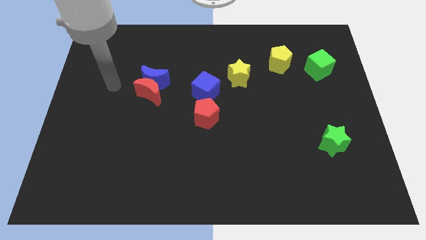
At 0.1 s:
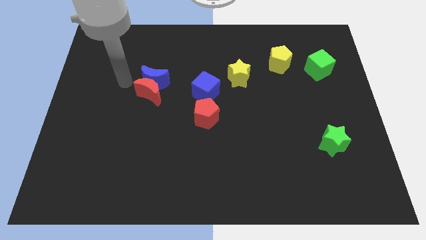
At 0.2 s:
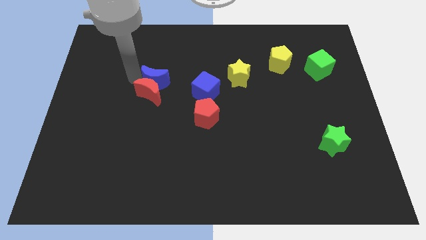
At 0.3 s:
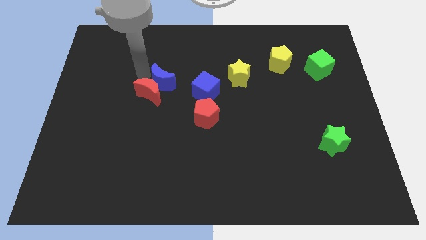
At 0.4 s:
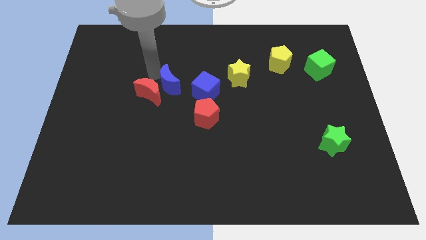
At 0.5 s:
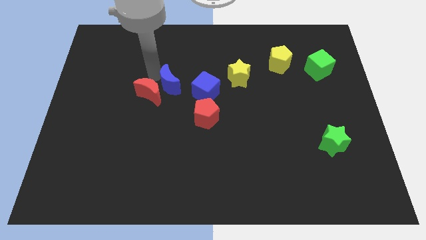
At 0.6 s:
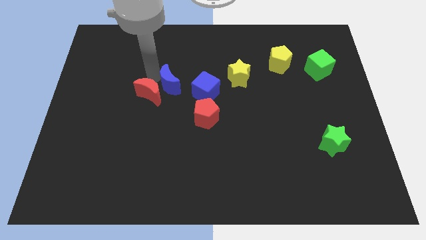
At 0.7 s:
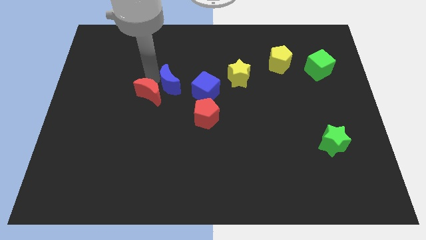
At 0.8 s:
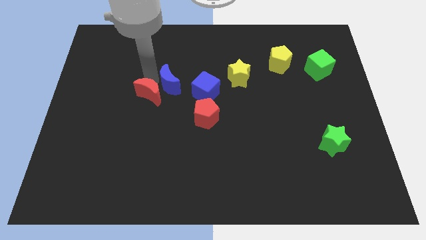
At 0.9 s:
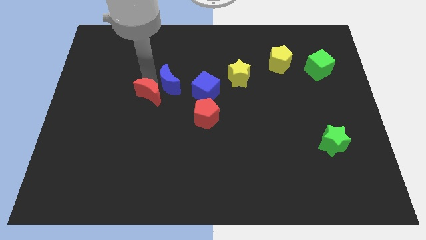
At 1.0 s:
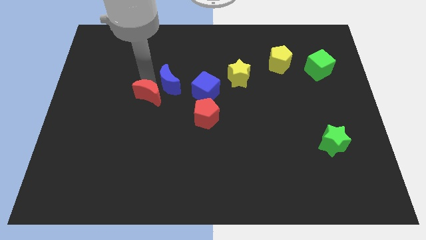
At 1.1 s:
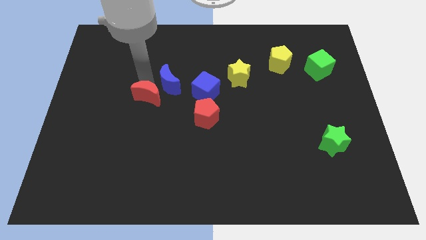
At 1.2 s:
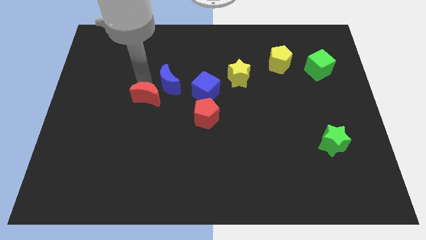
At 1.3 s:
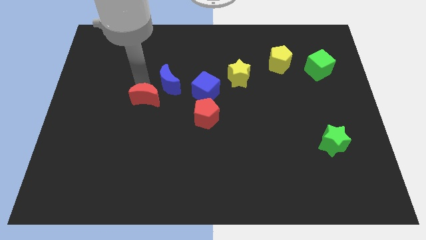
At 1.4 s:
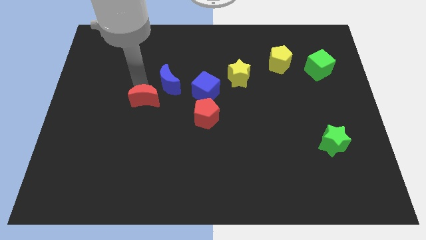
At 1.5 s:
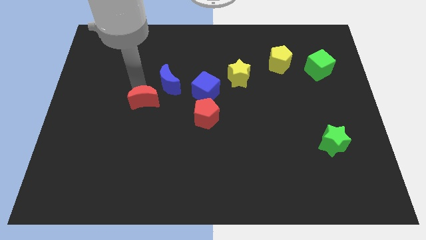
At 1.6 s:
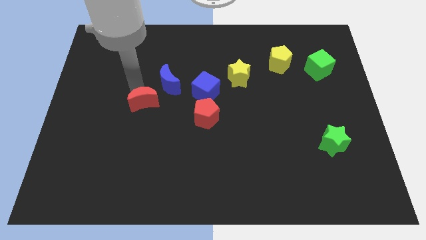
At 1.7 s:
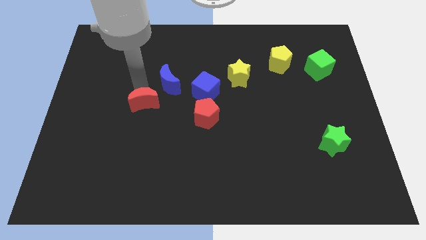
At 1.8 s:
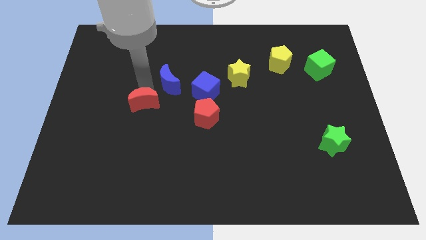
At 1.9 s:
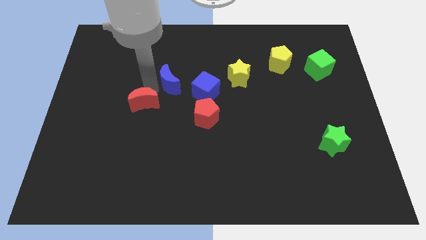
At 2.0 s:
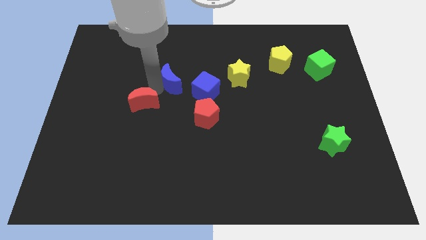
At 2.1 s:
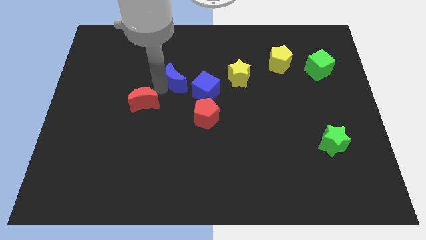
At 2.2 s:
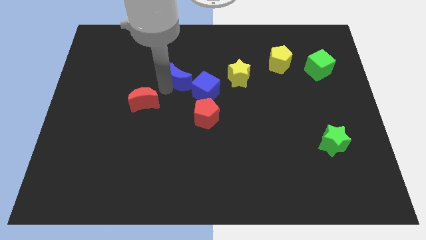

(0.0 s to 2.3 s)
separate the red moon from the blue moon

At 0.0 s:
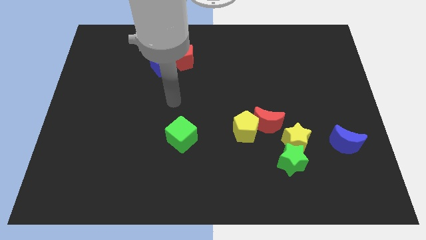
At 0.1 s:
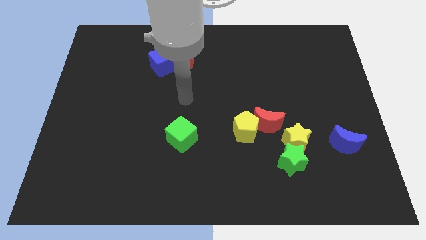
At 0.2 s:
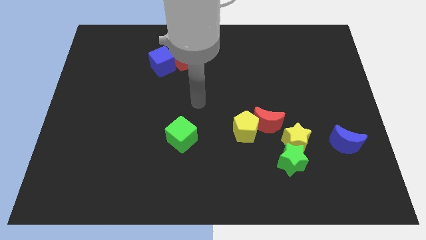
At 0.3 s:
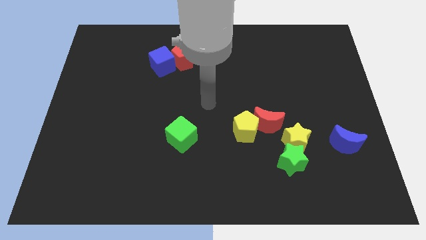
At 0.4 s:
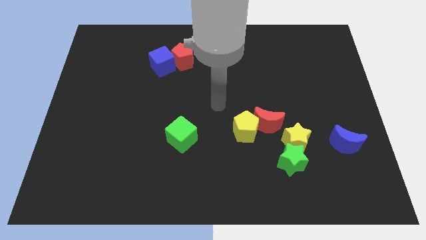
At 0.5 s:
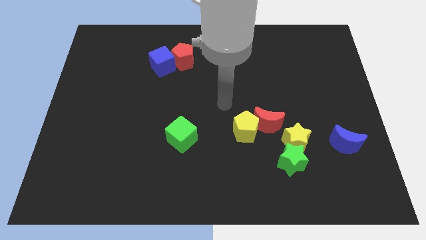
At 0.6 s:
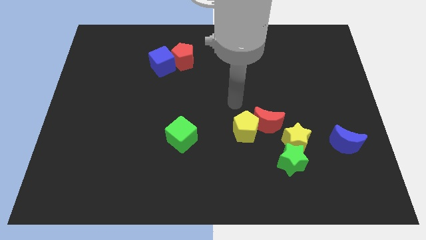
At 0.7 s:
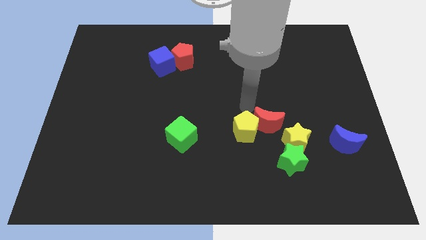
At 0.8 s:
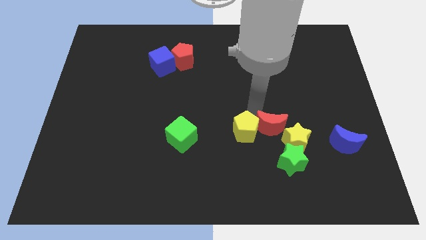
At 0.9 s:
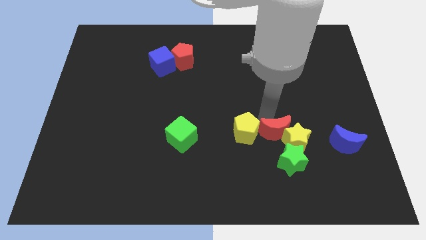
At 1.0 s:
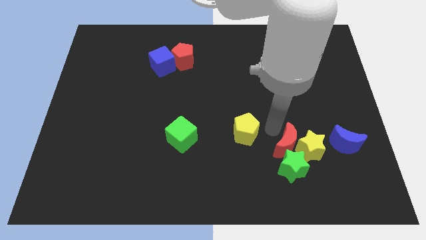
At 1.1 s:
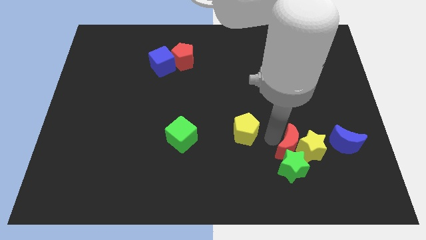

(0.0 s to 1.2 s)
pull the yellow pentagon apart from the red moon

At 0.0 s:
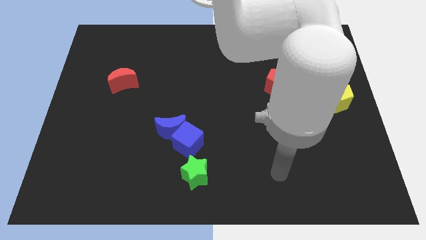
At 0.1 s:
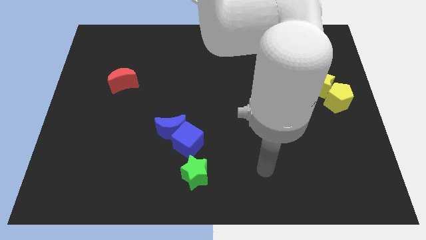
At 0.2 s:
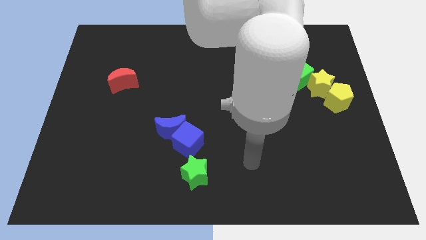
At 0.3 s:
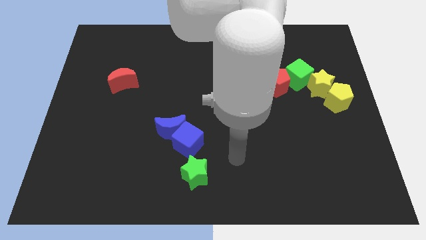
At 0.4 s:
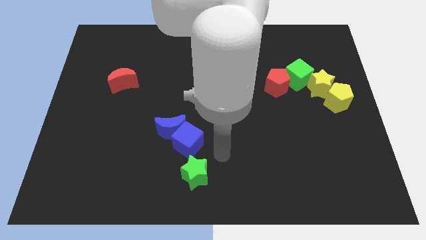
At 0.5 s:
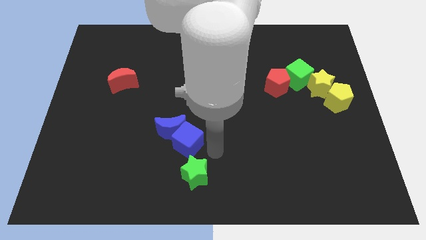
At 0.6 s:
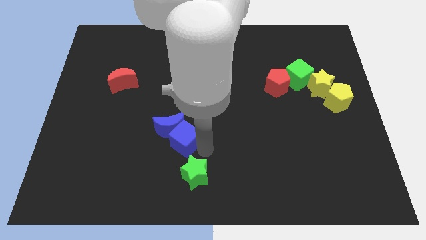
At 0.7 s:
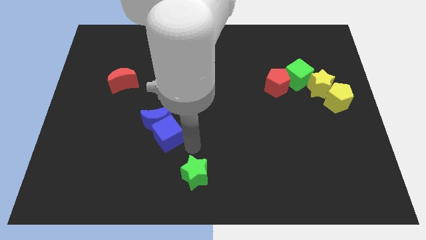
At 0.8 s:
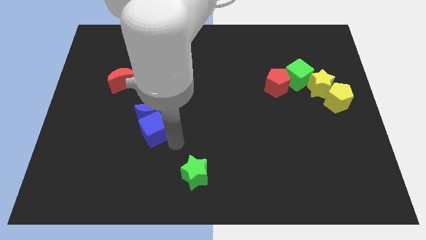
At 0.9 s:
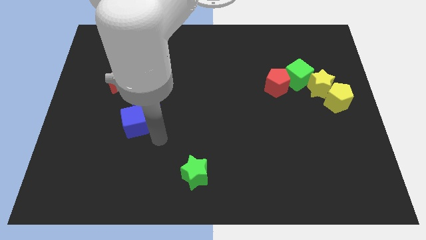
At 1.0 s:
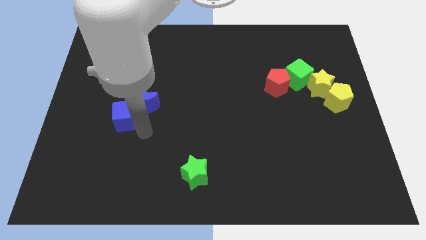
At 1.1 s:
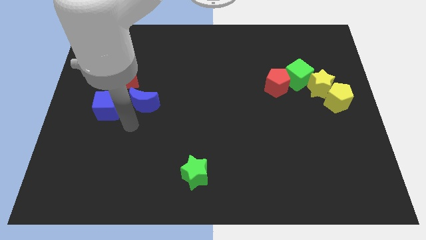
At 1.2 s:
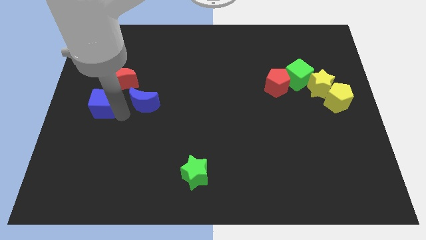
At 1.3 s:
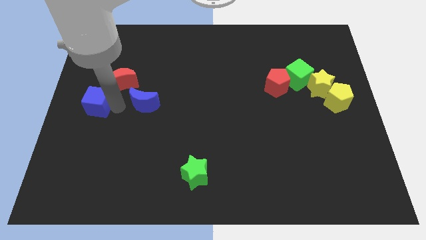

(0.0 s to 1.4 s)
pull the blue moon apart from the blue cube

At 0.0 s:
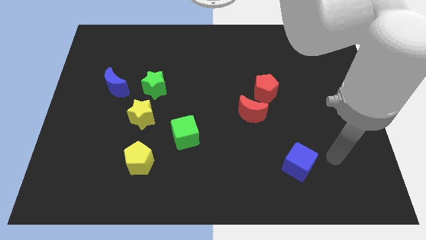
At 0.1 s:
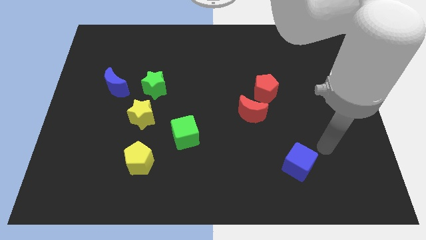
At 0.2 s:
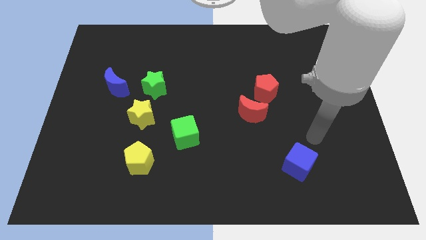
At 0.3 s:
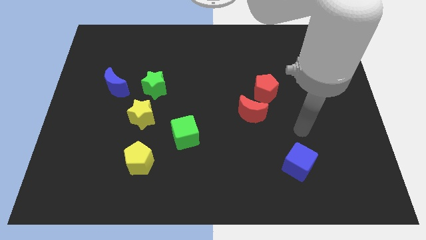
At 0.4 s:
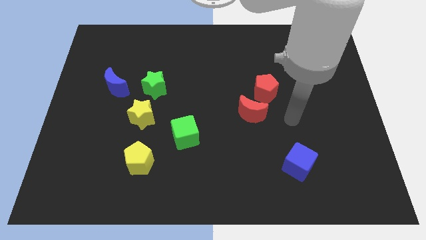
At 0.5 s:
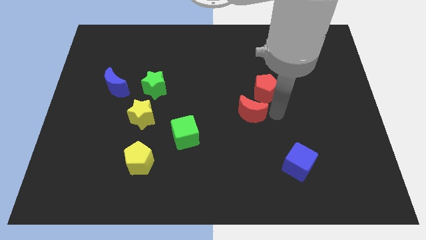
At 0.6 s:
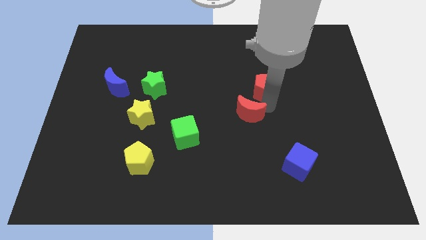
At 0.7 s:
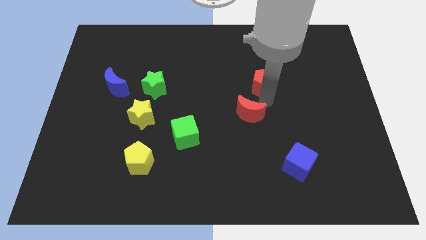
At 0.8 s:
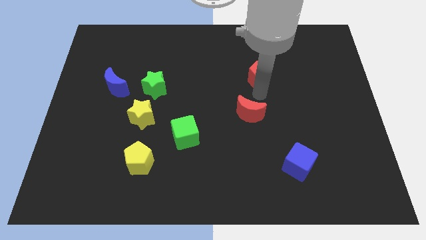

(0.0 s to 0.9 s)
move the red moon away from the red pentagon

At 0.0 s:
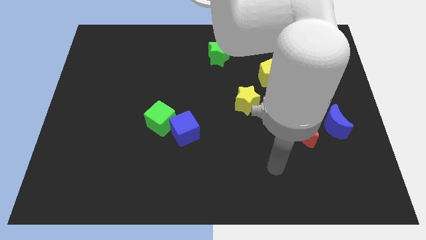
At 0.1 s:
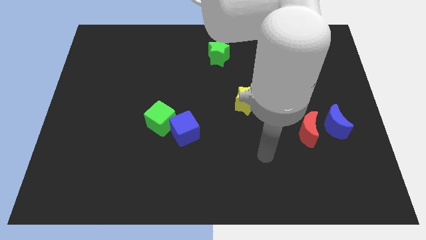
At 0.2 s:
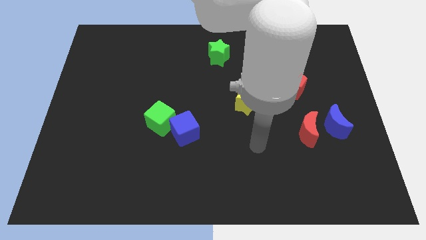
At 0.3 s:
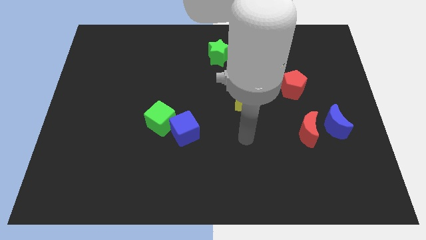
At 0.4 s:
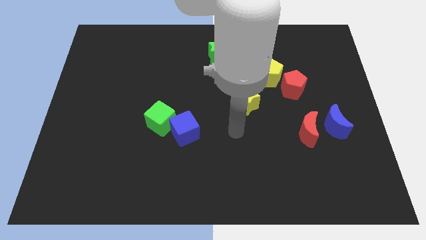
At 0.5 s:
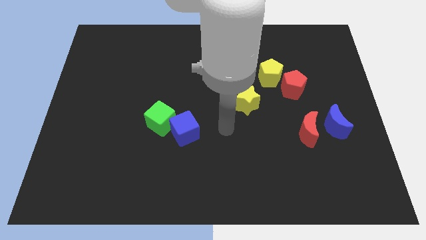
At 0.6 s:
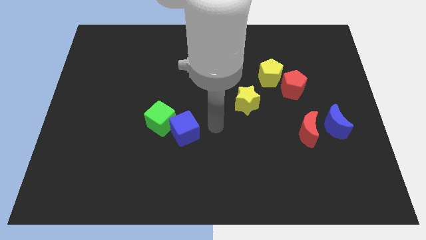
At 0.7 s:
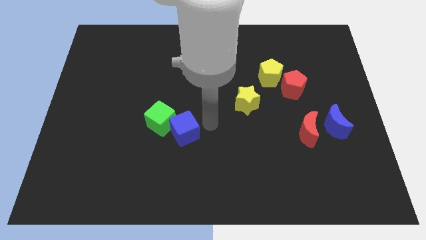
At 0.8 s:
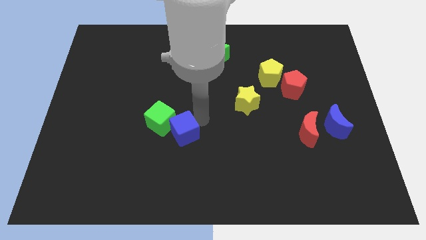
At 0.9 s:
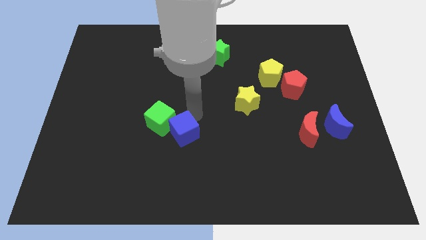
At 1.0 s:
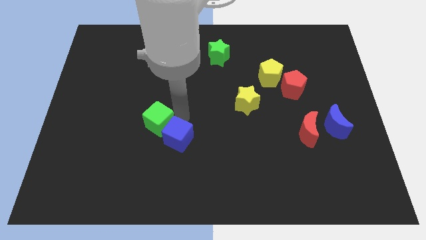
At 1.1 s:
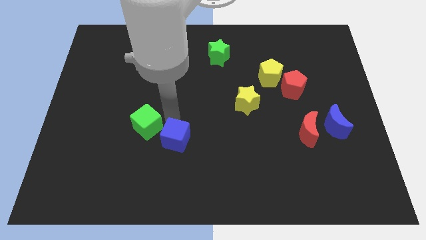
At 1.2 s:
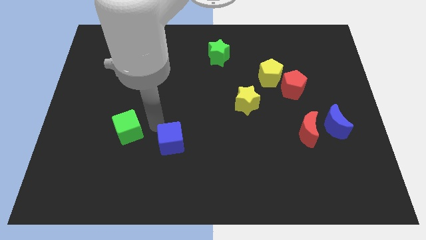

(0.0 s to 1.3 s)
separate the blue cube from the green cube

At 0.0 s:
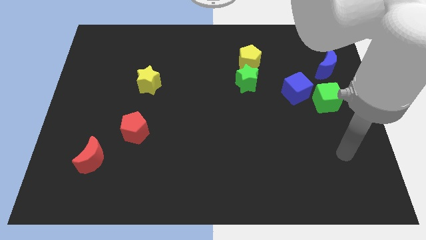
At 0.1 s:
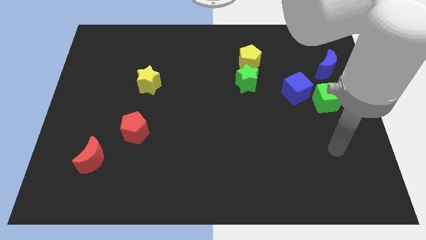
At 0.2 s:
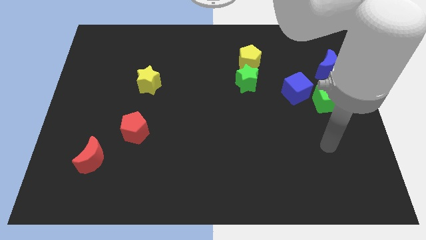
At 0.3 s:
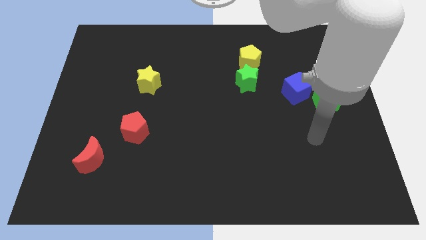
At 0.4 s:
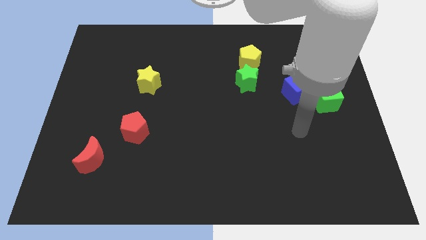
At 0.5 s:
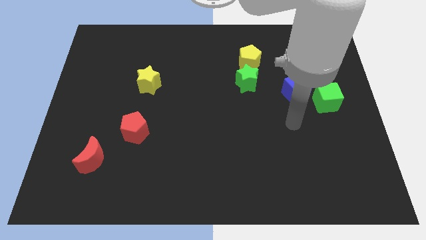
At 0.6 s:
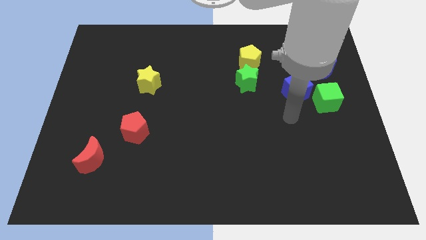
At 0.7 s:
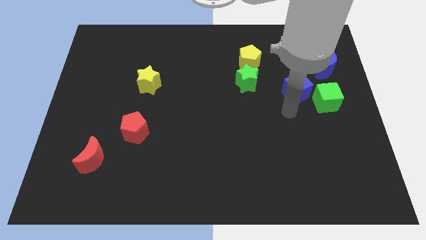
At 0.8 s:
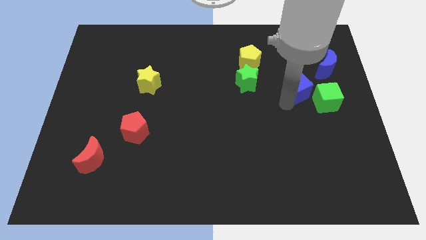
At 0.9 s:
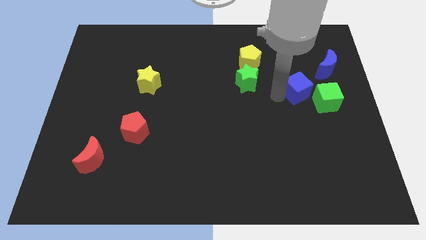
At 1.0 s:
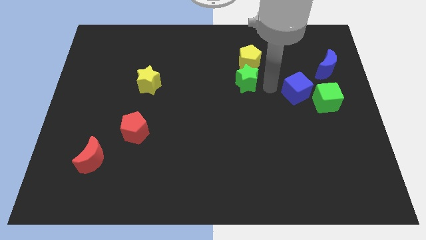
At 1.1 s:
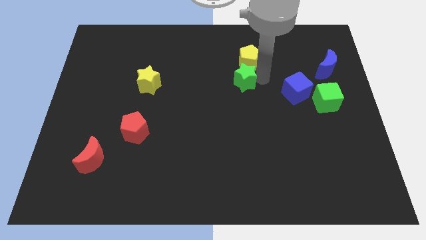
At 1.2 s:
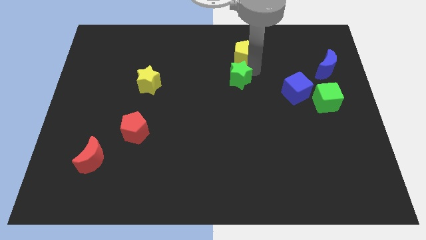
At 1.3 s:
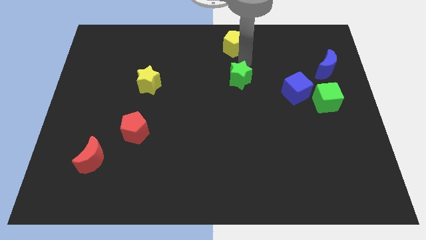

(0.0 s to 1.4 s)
separate the green star from the yellow pentagon

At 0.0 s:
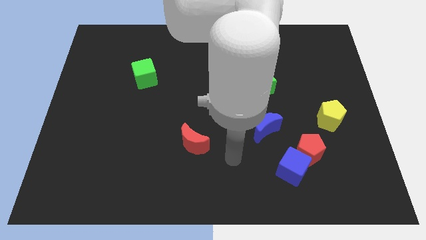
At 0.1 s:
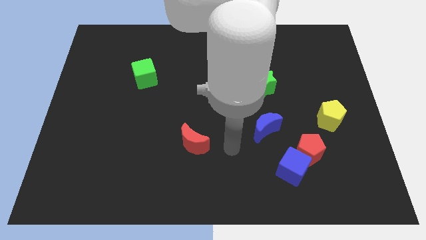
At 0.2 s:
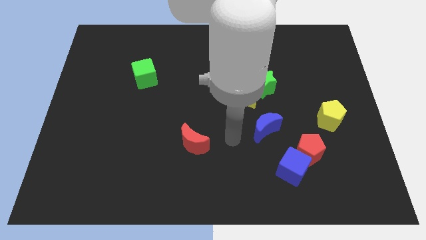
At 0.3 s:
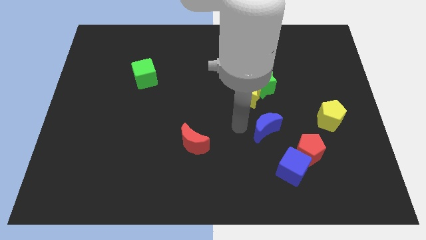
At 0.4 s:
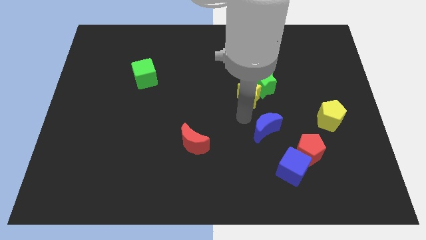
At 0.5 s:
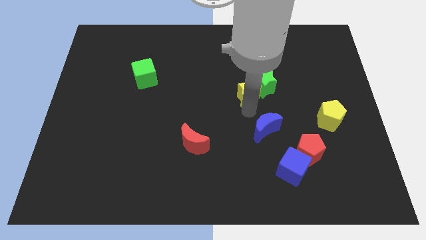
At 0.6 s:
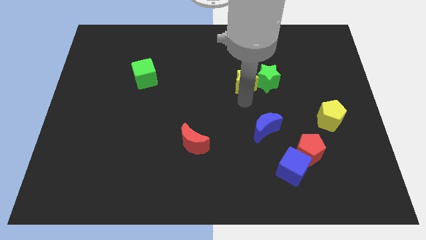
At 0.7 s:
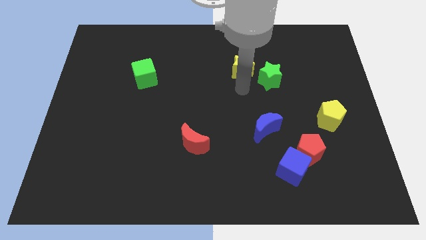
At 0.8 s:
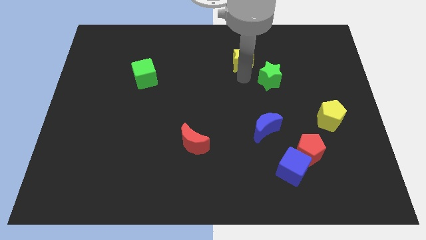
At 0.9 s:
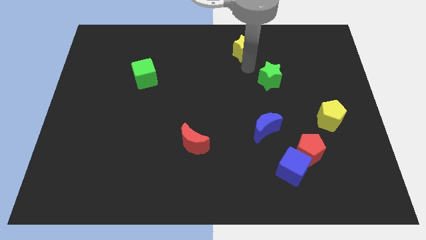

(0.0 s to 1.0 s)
move the green star away from the yellow star
